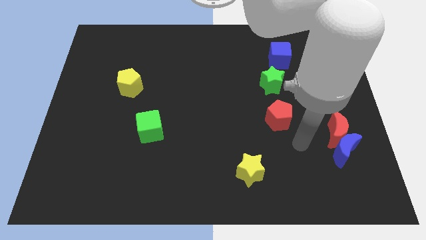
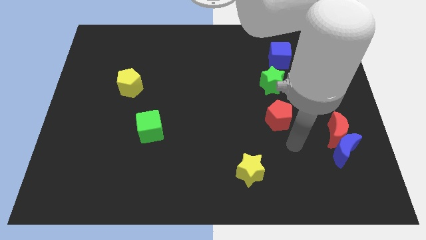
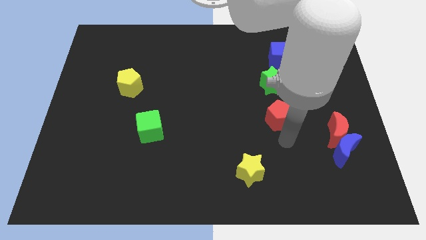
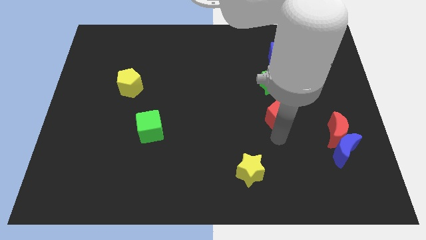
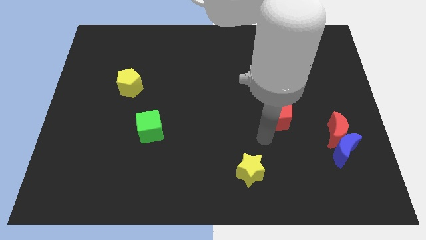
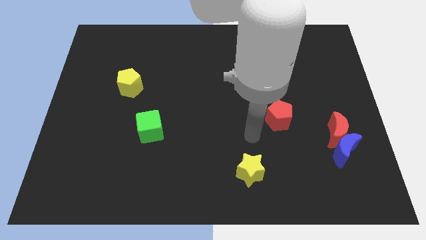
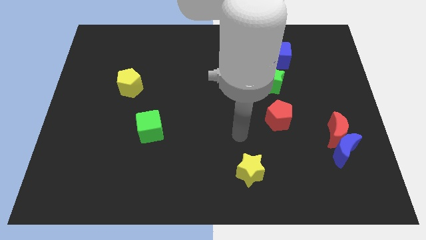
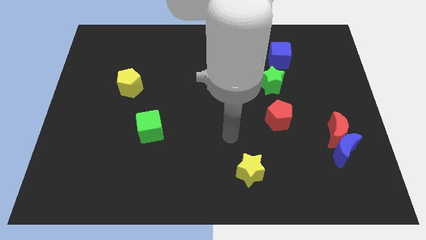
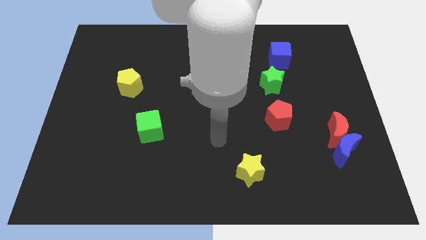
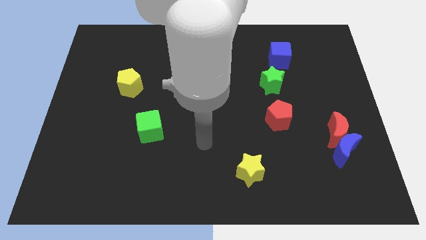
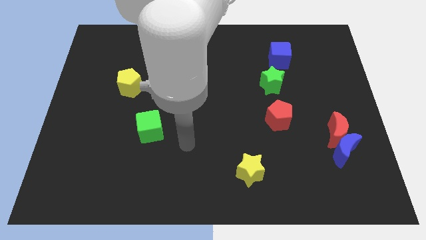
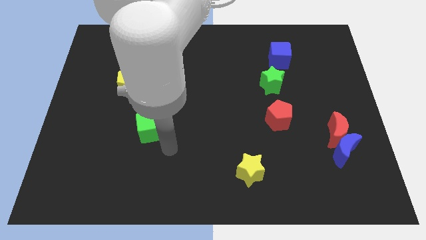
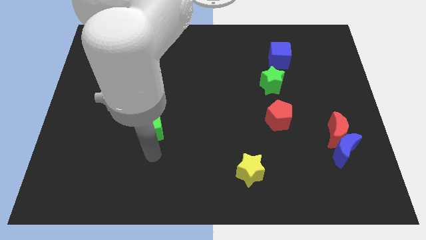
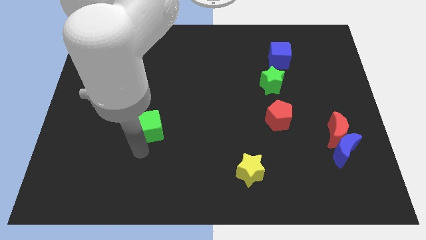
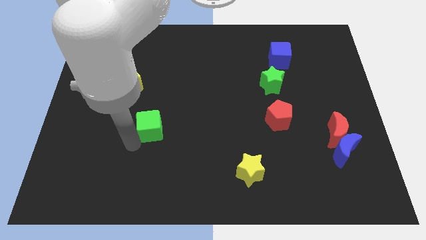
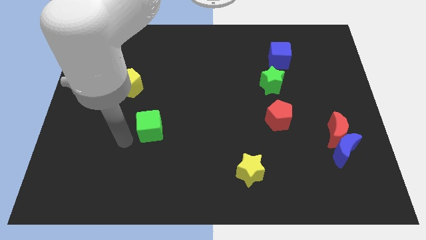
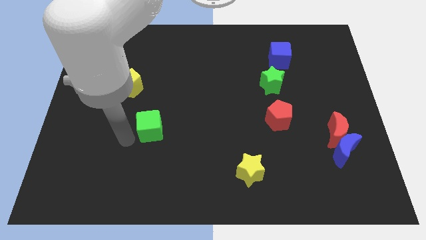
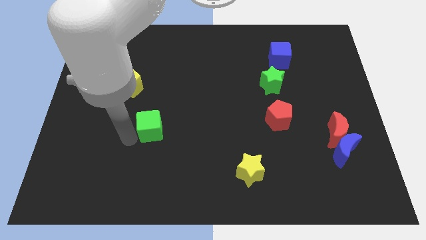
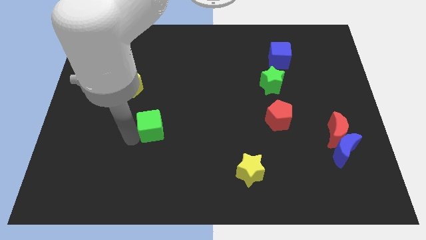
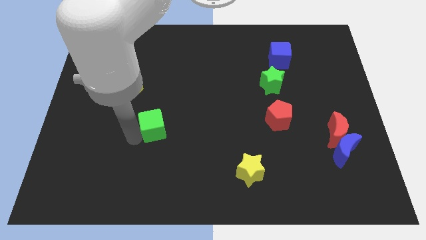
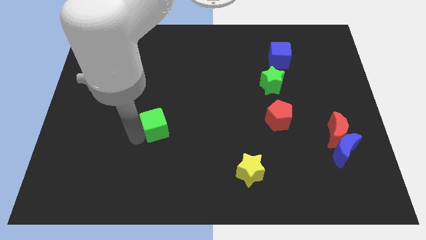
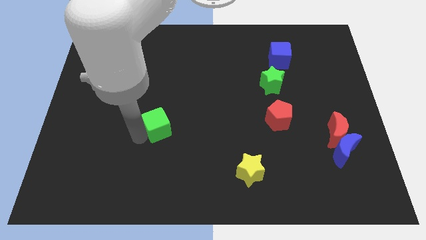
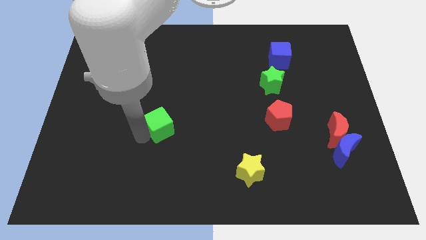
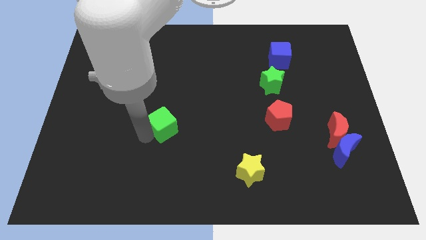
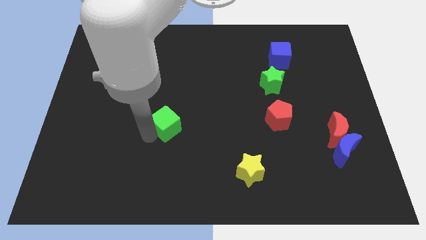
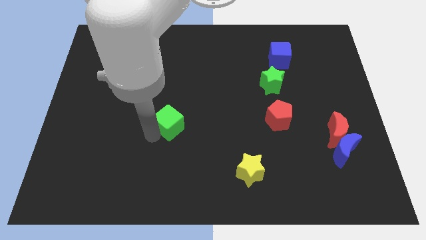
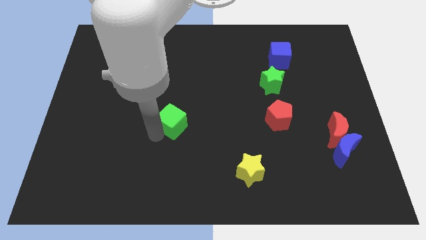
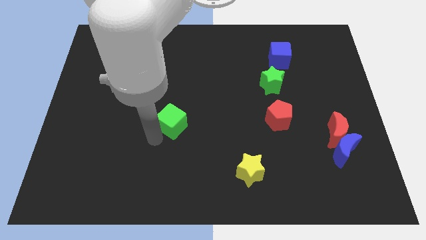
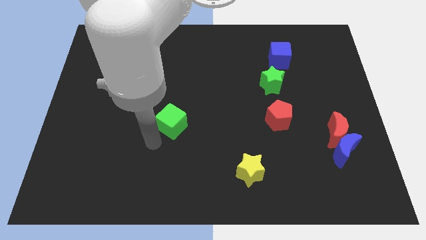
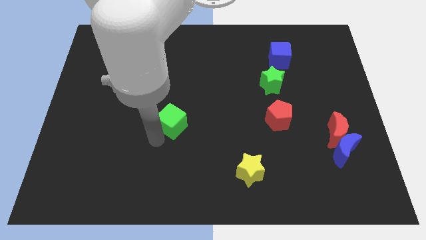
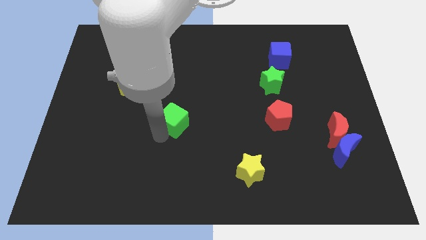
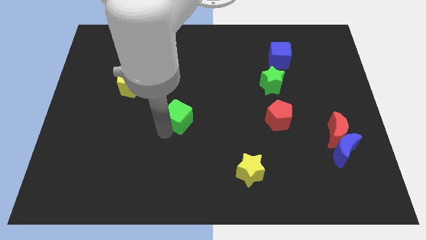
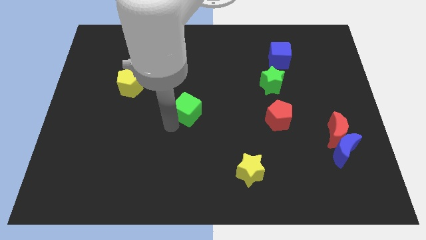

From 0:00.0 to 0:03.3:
push the green cube a bit up and to the right diagonally

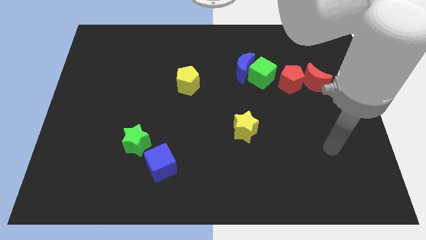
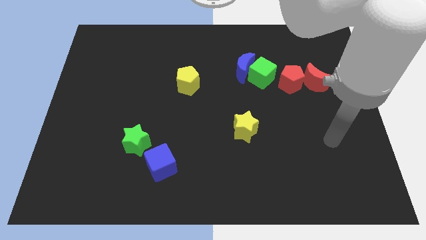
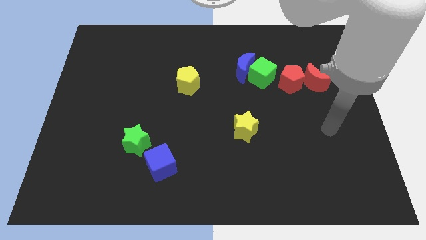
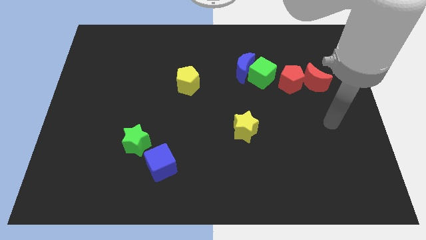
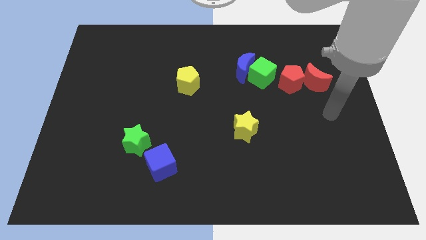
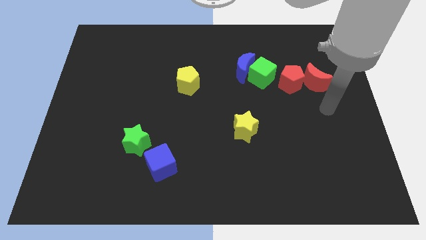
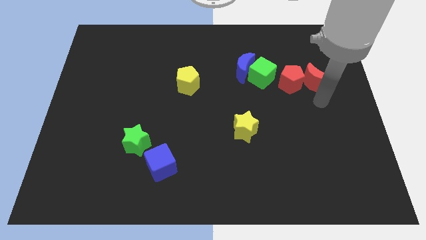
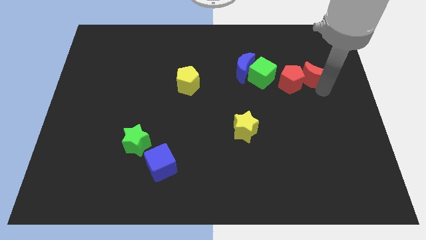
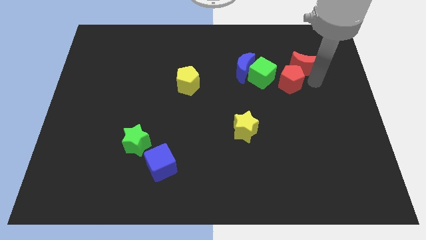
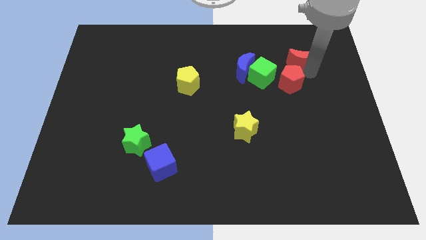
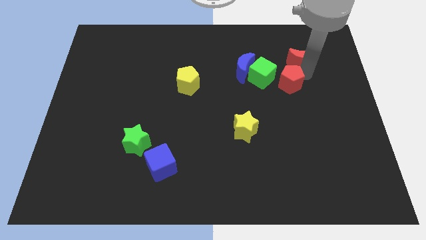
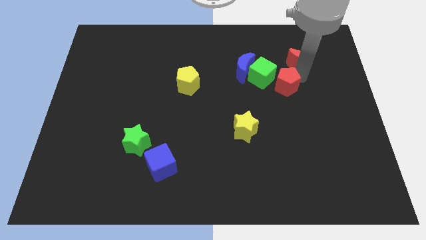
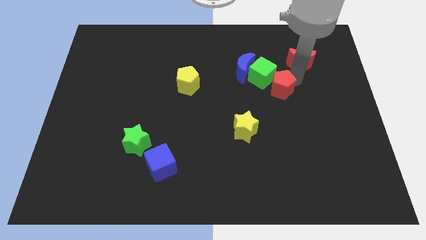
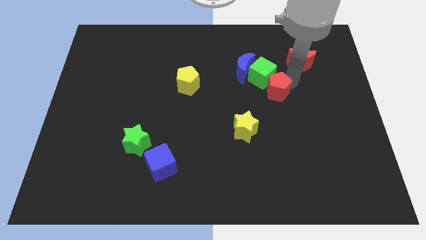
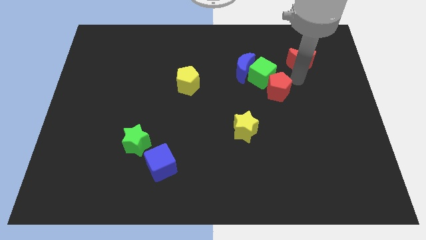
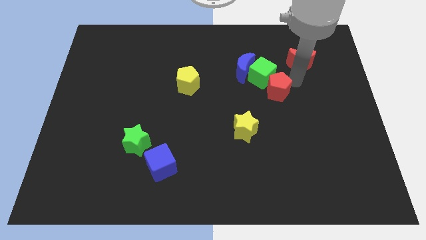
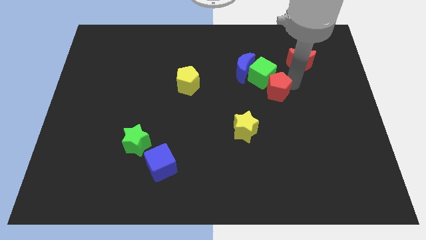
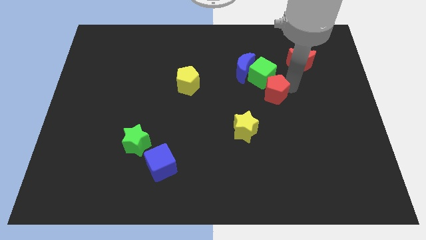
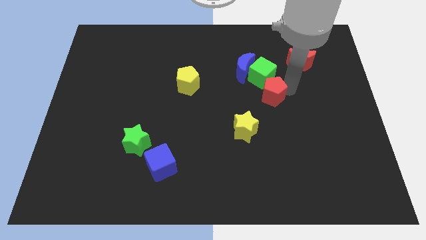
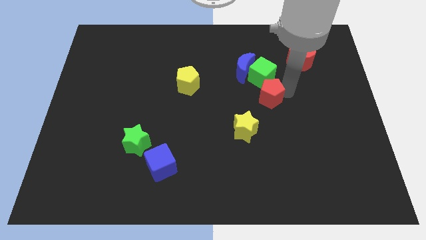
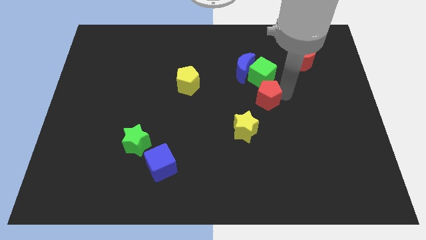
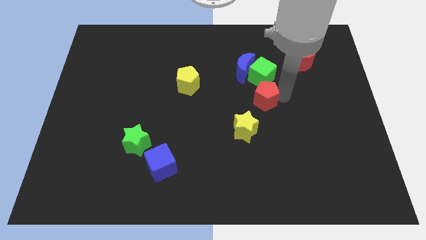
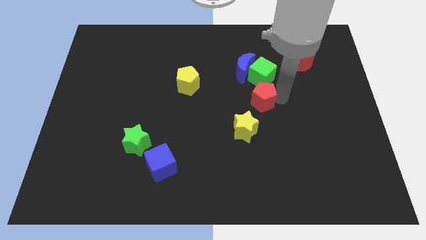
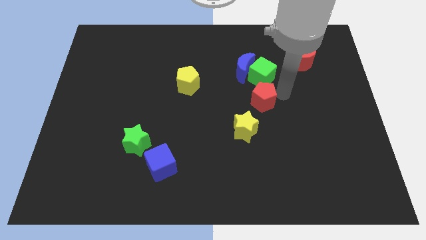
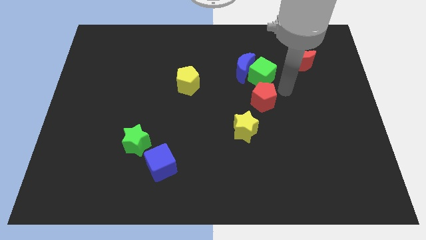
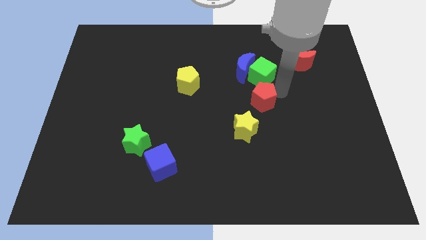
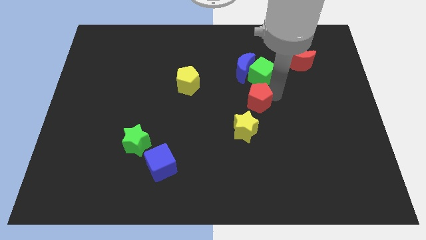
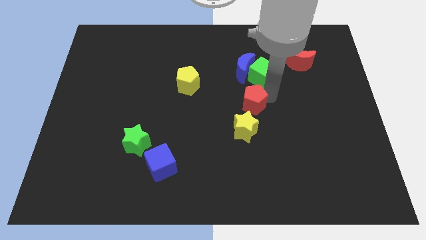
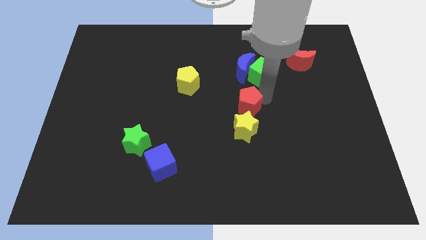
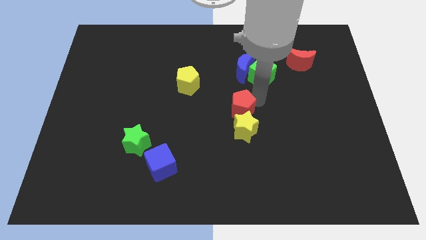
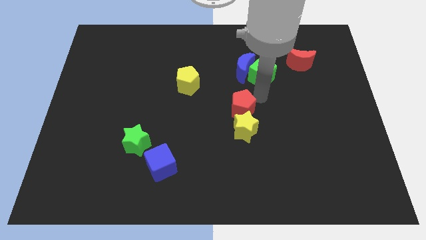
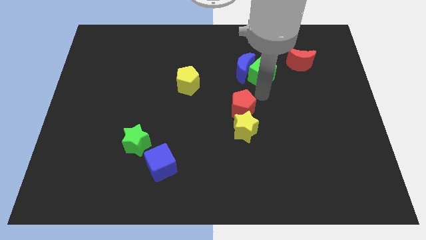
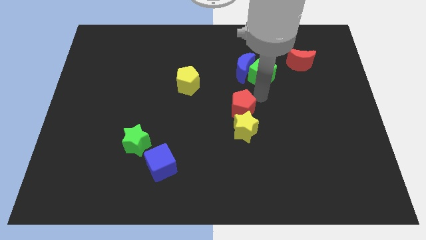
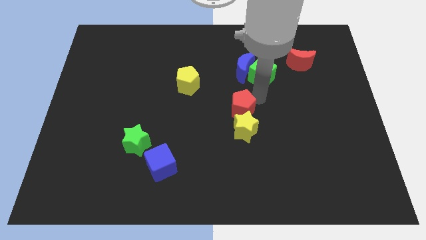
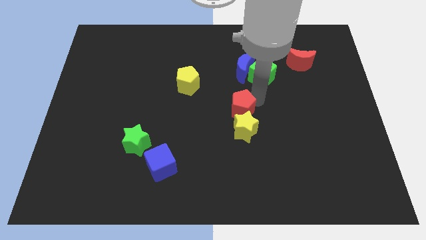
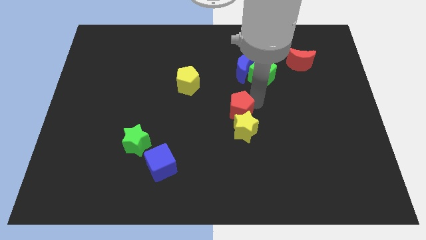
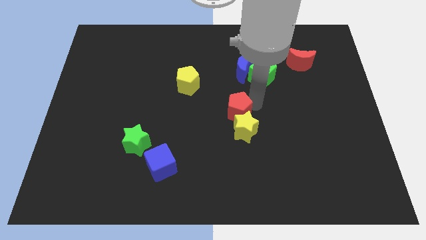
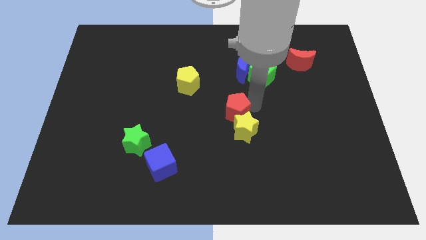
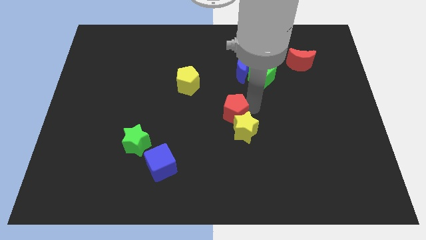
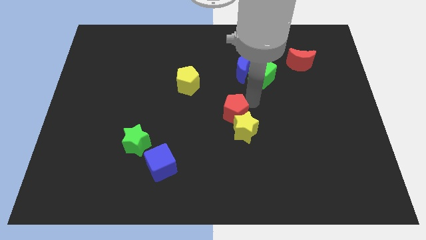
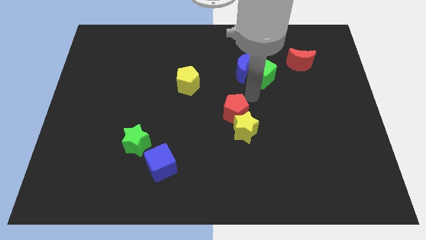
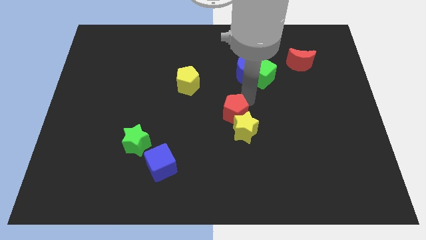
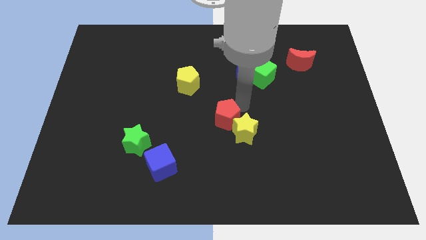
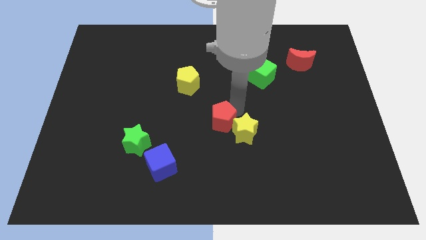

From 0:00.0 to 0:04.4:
move the red pentagon downwards and left

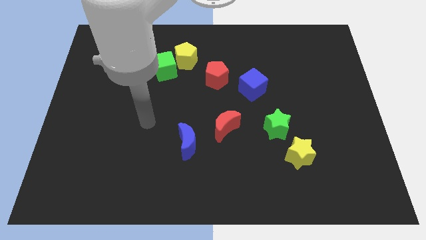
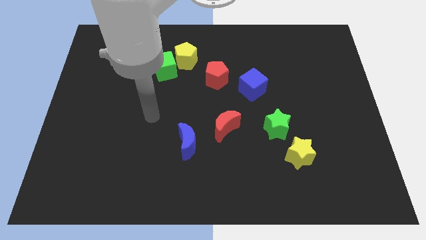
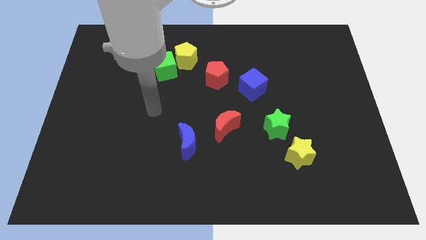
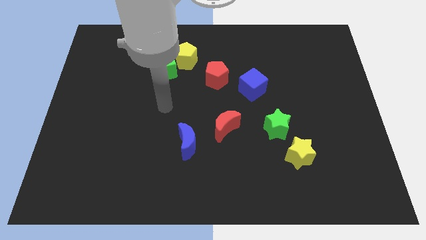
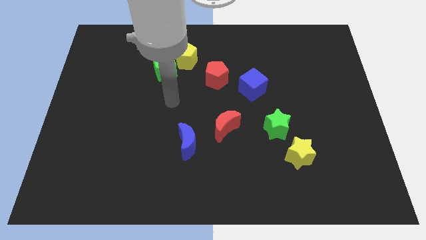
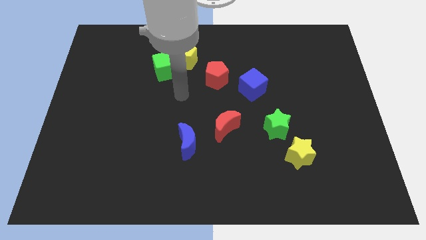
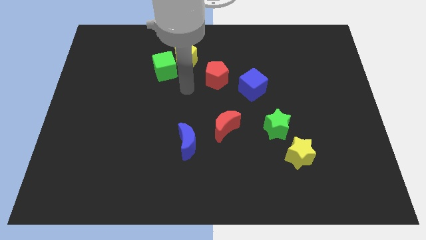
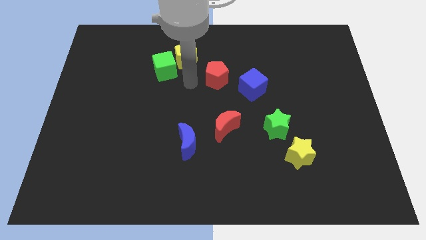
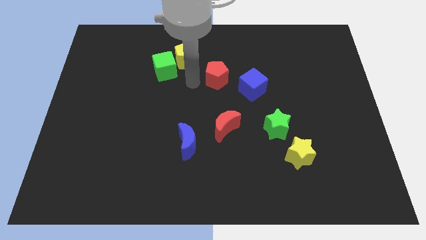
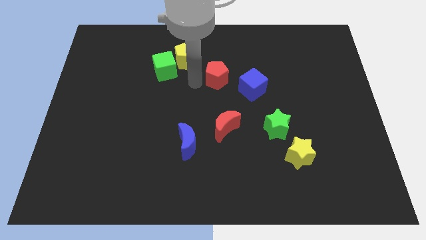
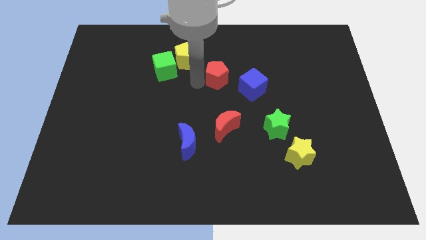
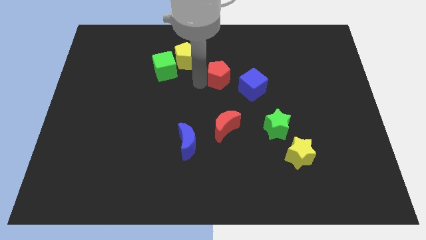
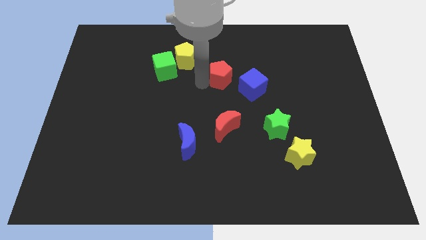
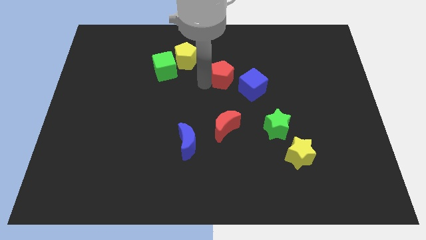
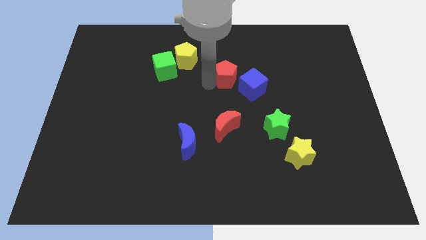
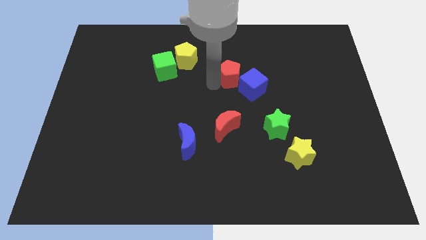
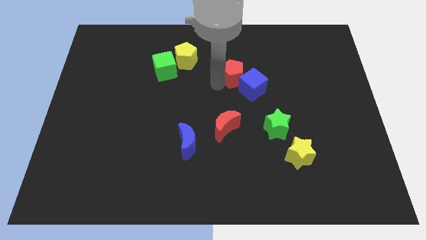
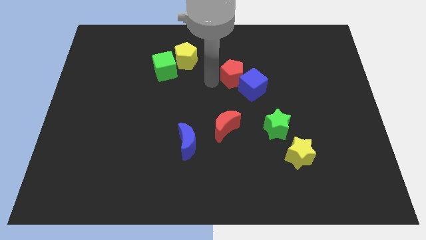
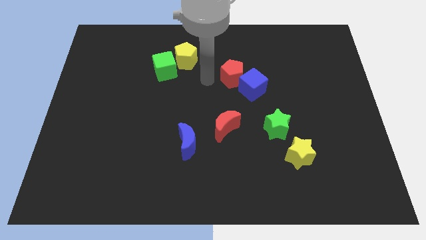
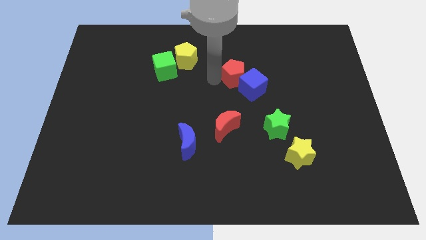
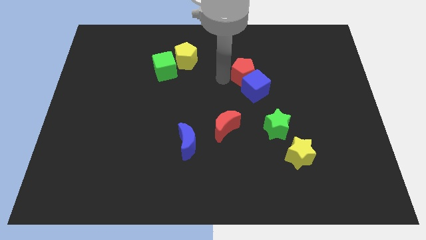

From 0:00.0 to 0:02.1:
push the red pentagon right a little bit
